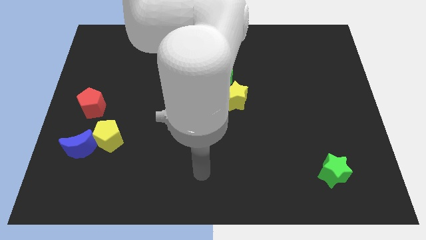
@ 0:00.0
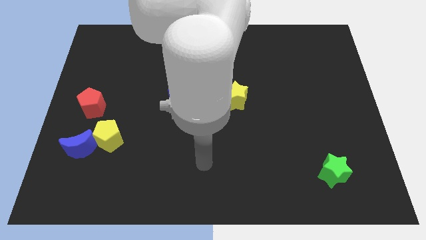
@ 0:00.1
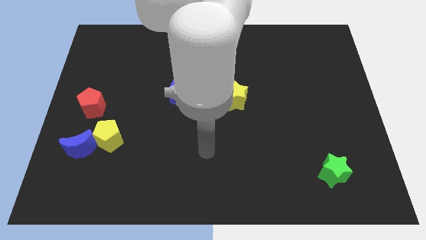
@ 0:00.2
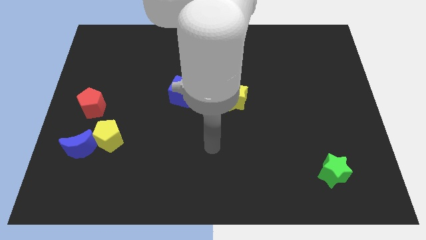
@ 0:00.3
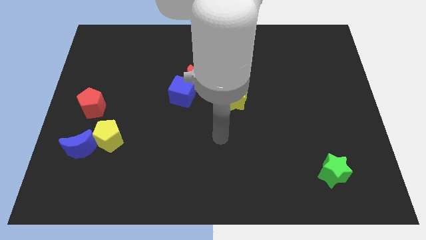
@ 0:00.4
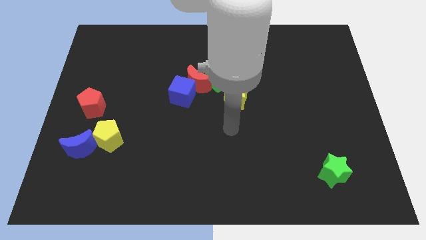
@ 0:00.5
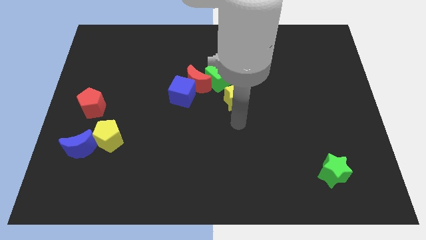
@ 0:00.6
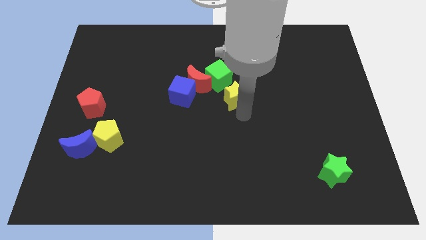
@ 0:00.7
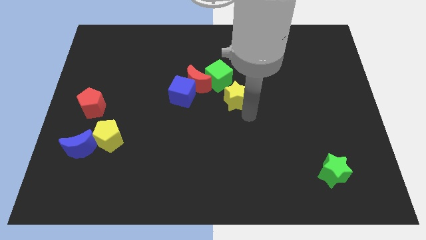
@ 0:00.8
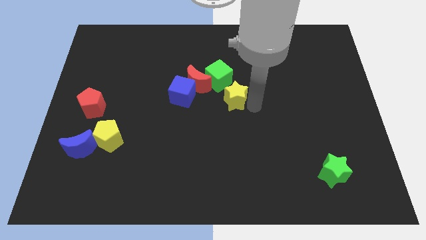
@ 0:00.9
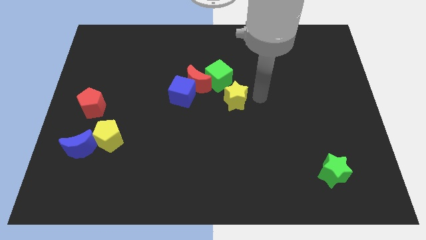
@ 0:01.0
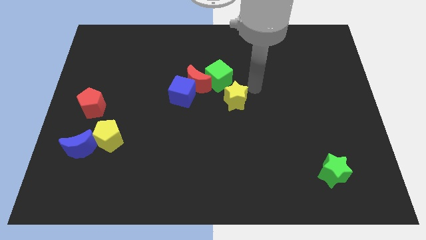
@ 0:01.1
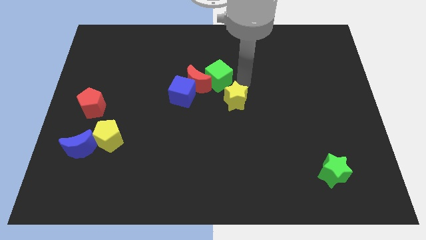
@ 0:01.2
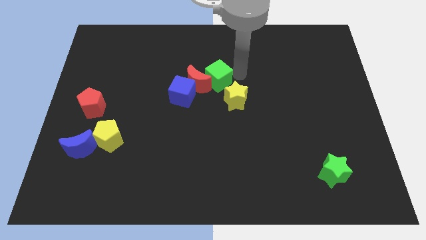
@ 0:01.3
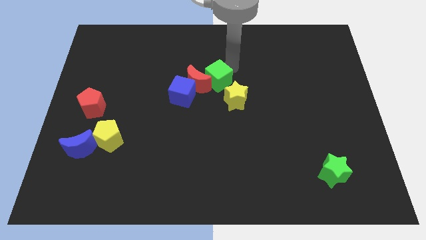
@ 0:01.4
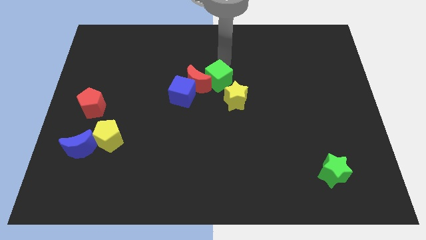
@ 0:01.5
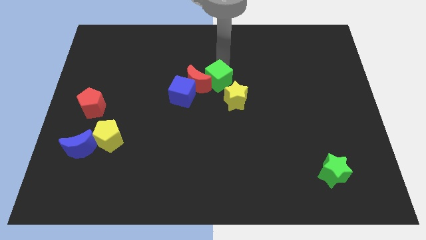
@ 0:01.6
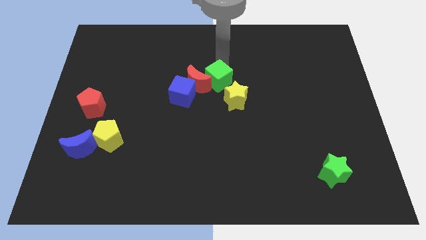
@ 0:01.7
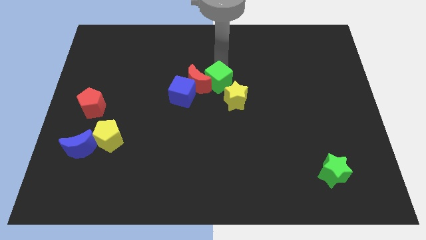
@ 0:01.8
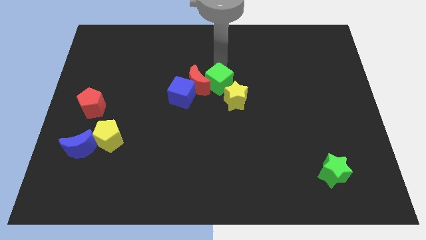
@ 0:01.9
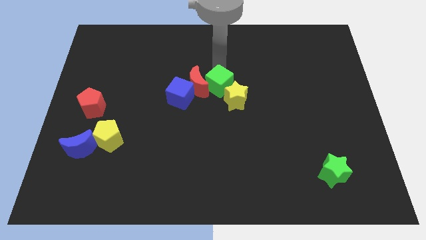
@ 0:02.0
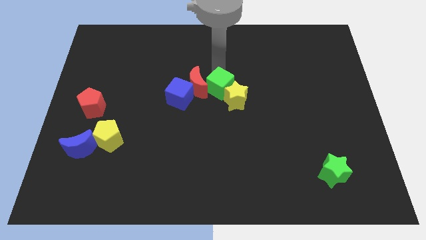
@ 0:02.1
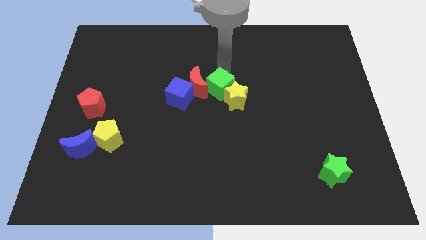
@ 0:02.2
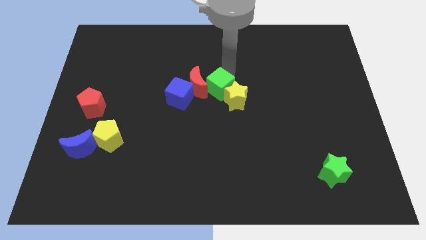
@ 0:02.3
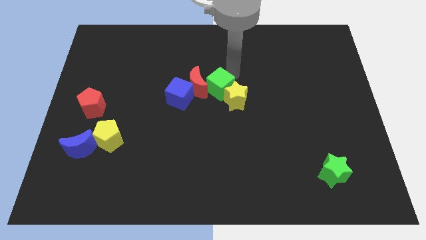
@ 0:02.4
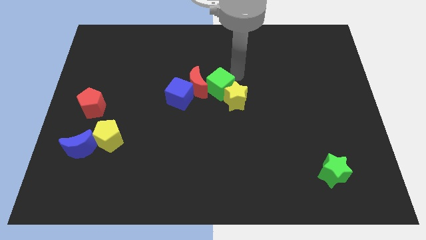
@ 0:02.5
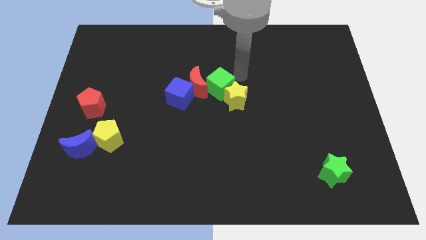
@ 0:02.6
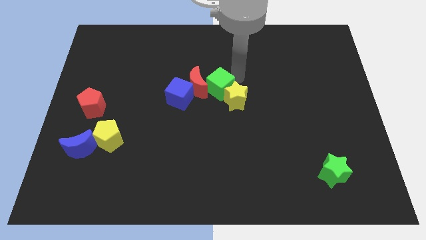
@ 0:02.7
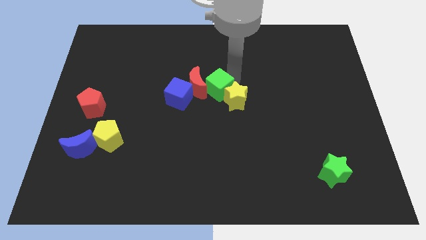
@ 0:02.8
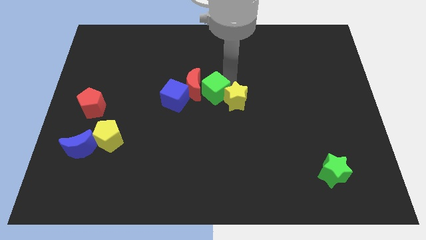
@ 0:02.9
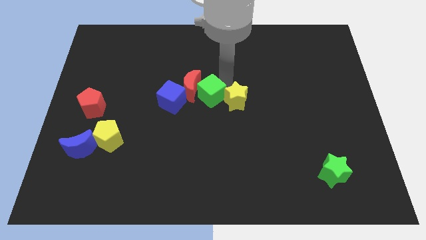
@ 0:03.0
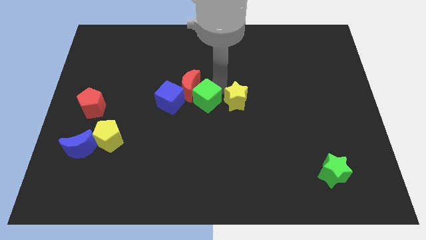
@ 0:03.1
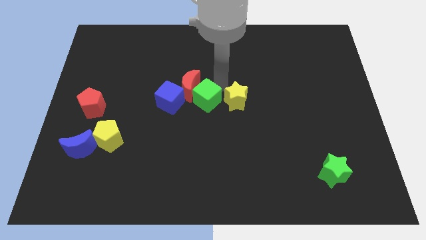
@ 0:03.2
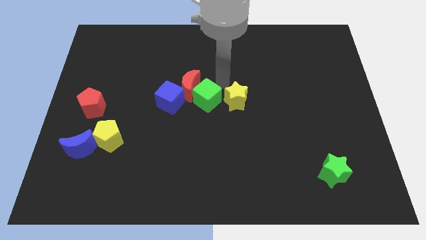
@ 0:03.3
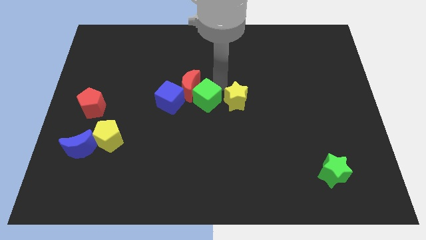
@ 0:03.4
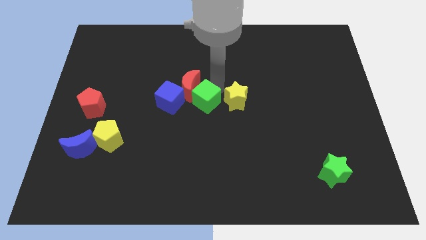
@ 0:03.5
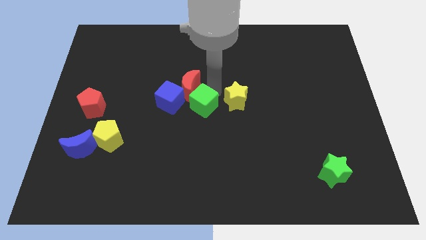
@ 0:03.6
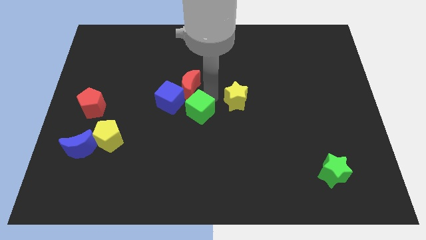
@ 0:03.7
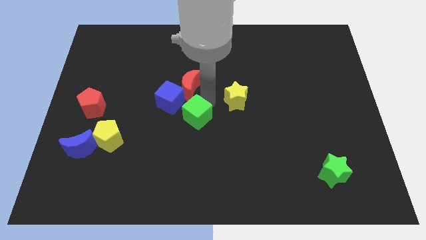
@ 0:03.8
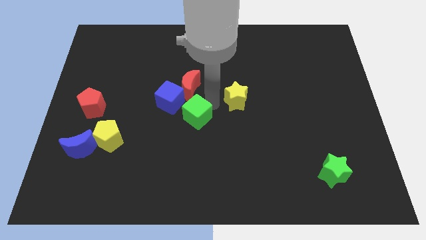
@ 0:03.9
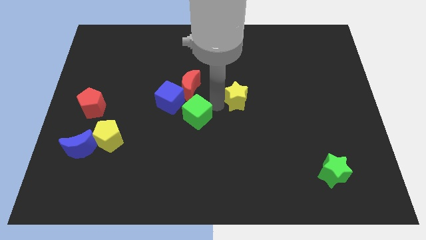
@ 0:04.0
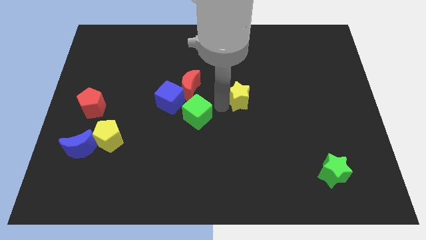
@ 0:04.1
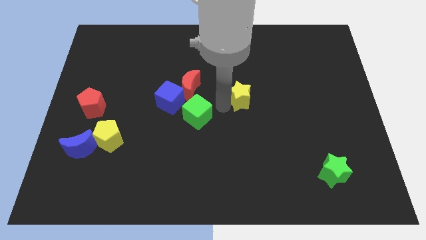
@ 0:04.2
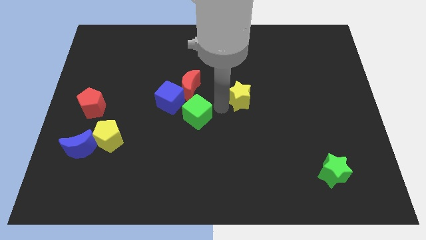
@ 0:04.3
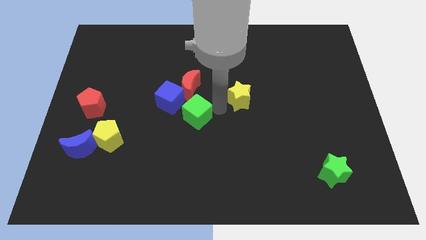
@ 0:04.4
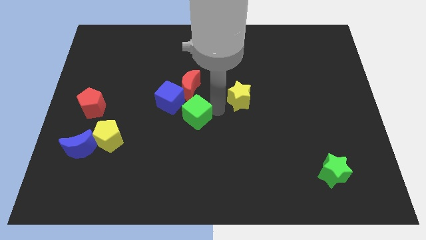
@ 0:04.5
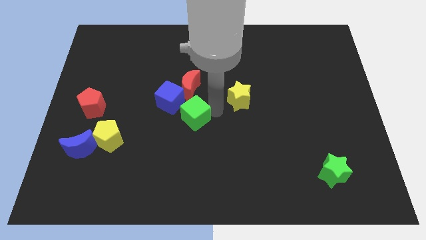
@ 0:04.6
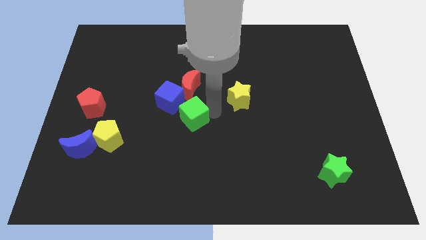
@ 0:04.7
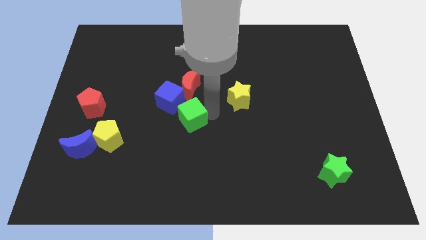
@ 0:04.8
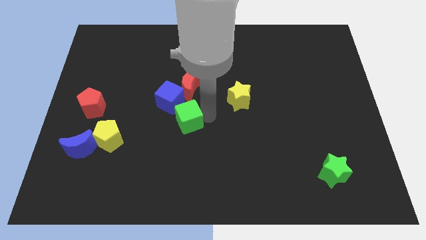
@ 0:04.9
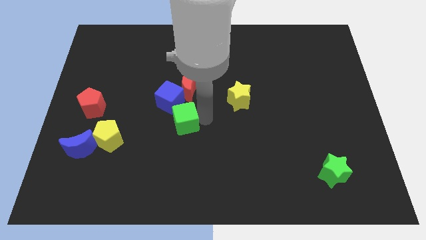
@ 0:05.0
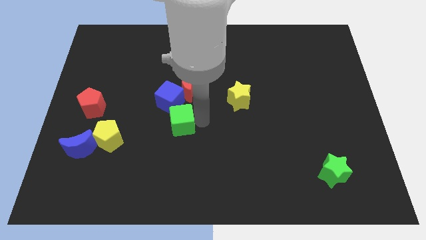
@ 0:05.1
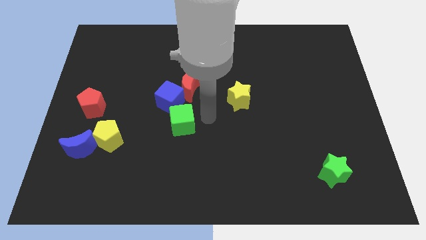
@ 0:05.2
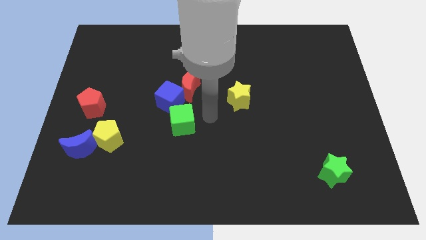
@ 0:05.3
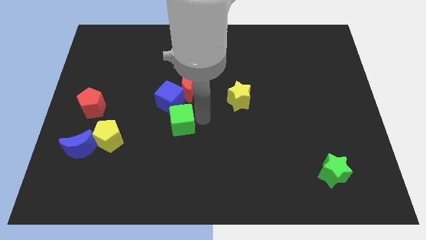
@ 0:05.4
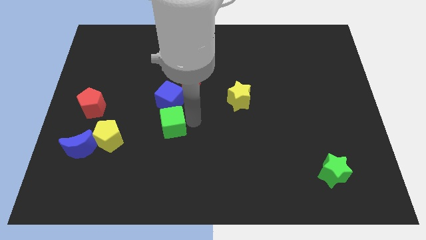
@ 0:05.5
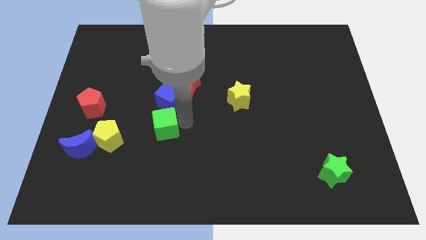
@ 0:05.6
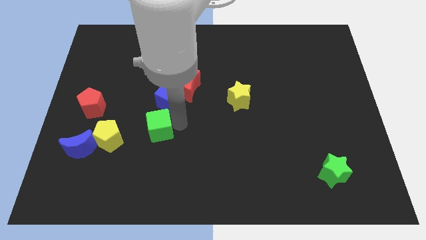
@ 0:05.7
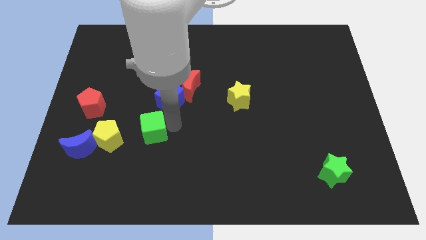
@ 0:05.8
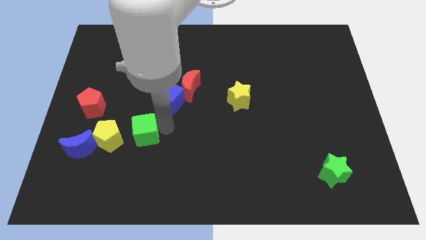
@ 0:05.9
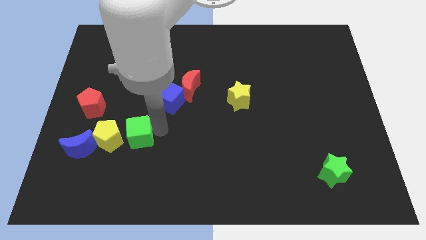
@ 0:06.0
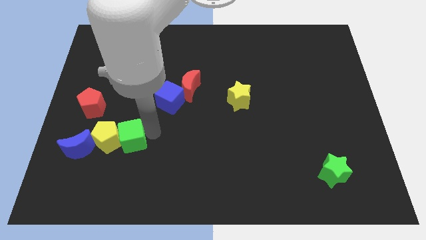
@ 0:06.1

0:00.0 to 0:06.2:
move the green cube next to the yellow pentagon

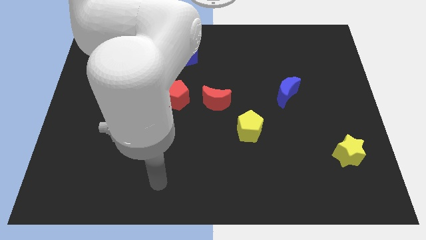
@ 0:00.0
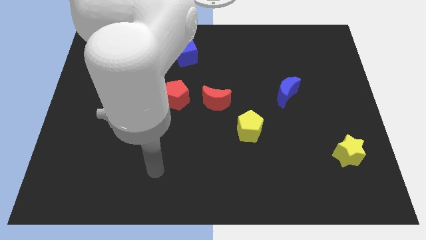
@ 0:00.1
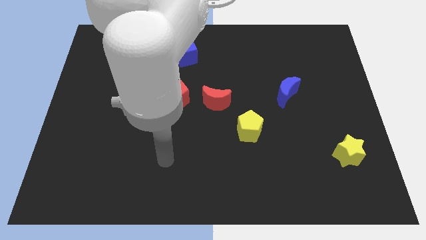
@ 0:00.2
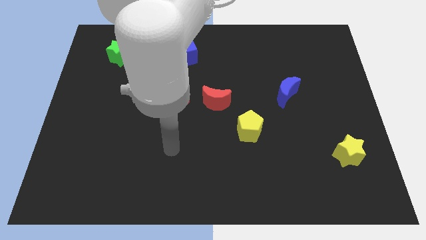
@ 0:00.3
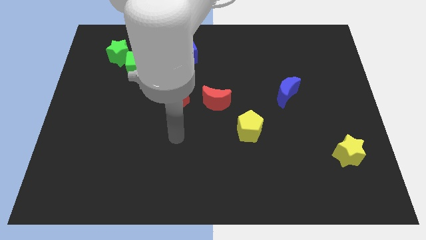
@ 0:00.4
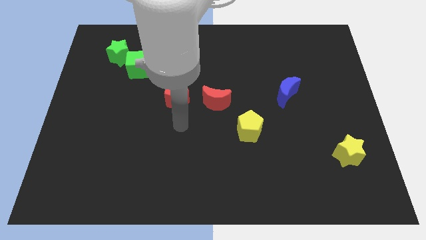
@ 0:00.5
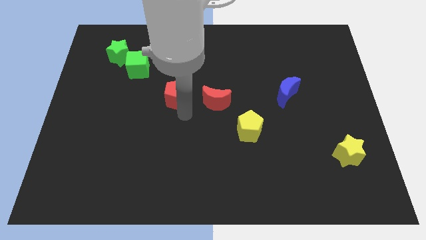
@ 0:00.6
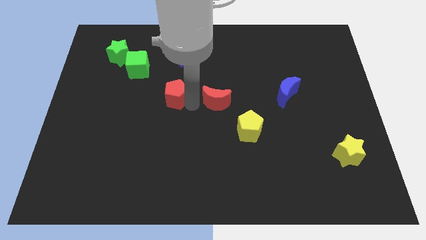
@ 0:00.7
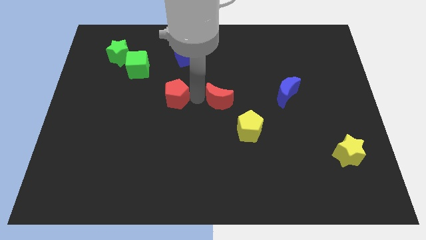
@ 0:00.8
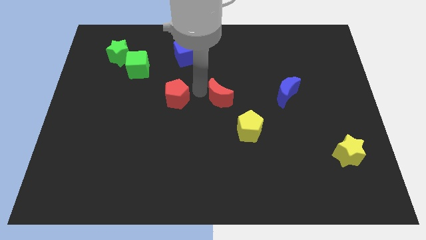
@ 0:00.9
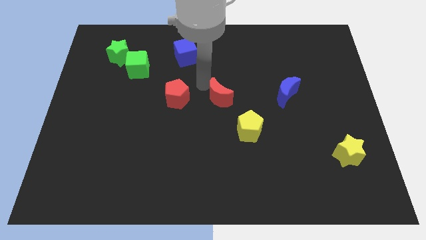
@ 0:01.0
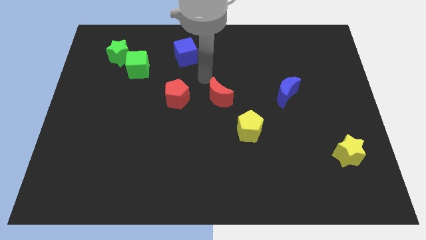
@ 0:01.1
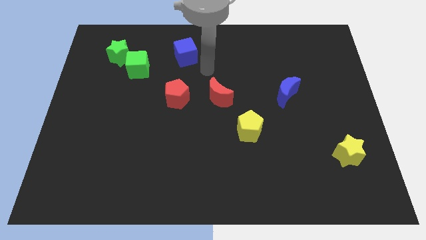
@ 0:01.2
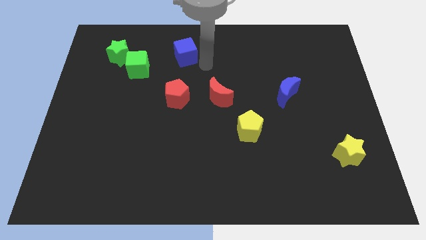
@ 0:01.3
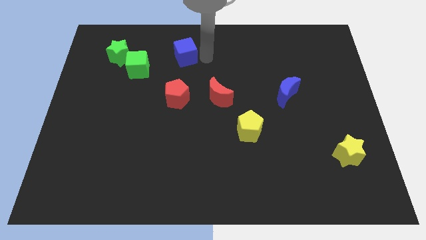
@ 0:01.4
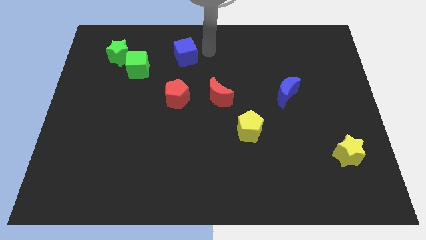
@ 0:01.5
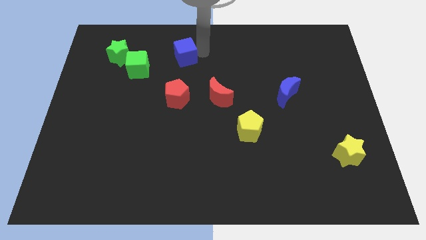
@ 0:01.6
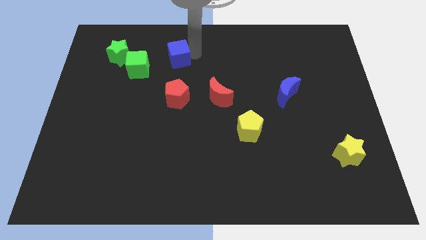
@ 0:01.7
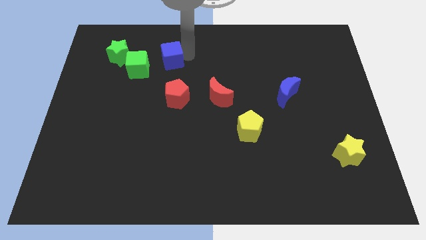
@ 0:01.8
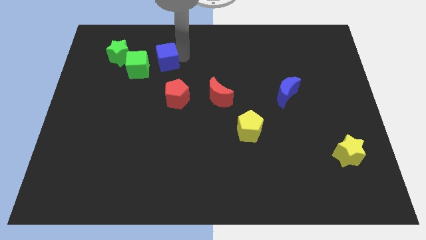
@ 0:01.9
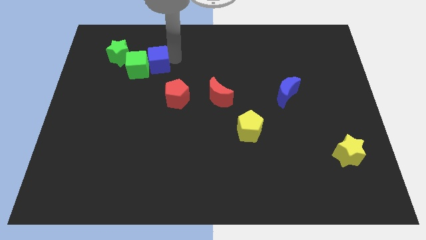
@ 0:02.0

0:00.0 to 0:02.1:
put the blue cube to the green cube
